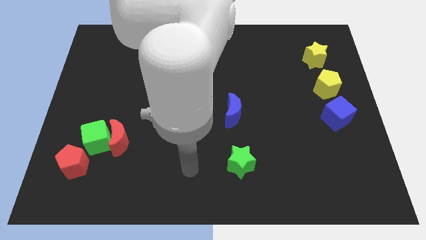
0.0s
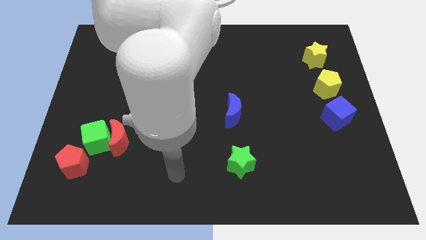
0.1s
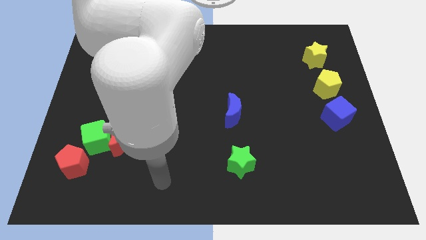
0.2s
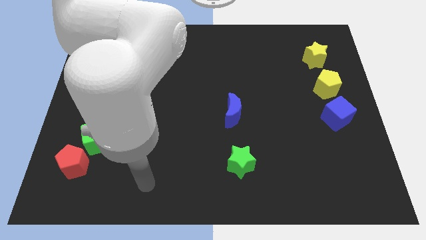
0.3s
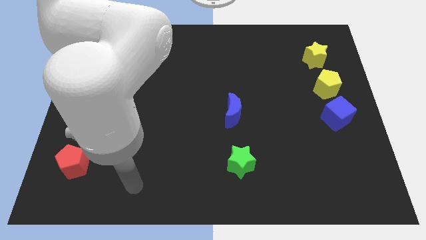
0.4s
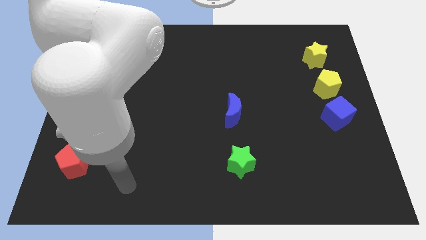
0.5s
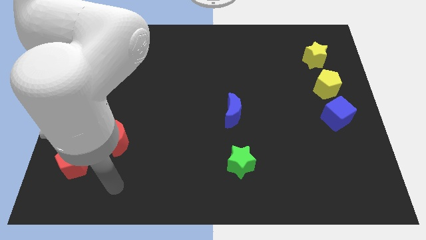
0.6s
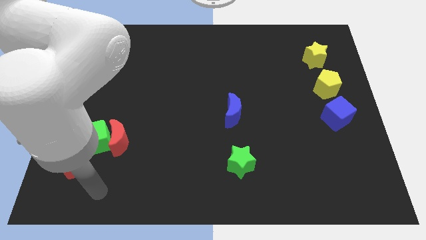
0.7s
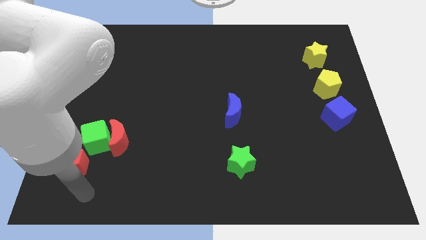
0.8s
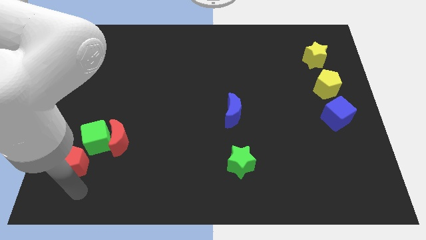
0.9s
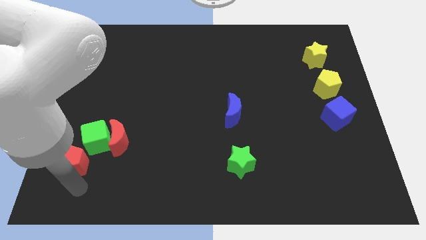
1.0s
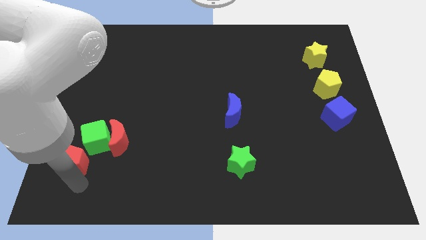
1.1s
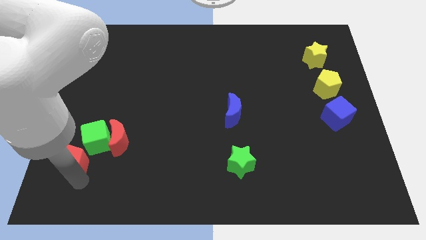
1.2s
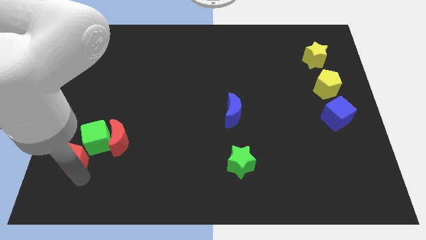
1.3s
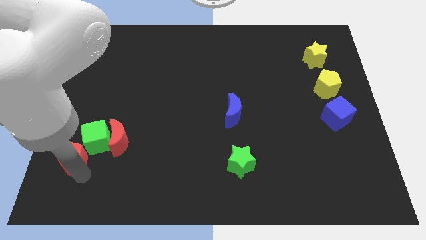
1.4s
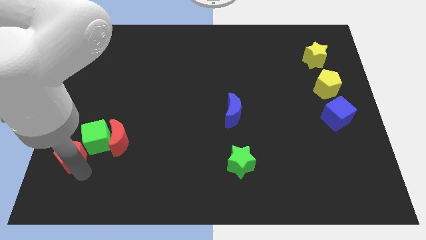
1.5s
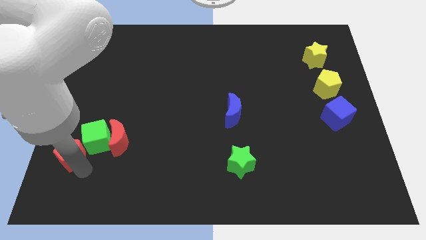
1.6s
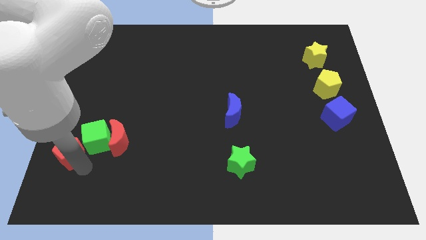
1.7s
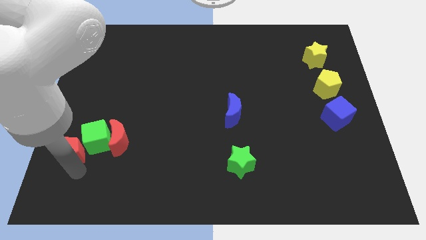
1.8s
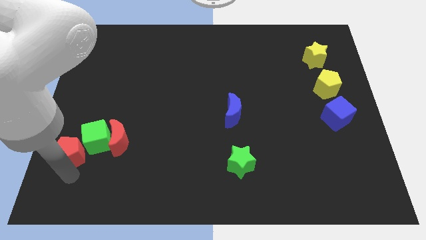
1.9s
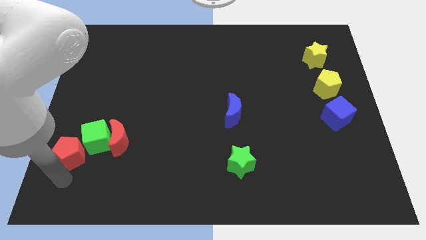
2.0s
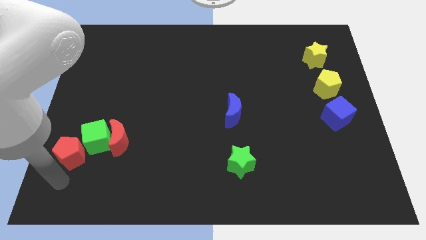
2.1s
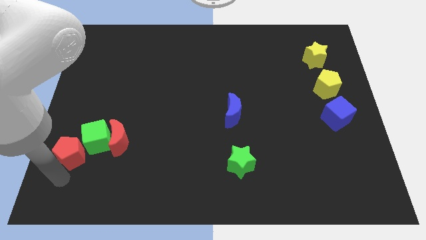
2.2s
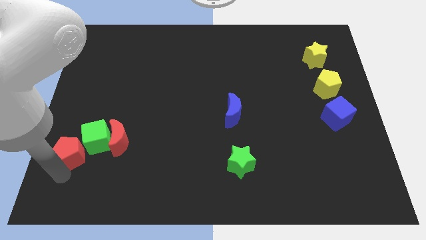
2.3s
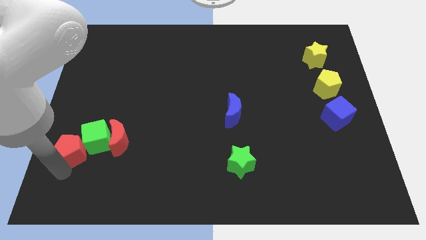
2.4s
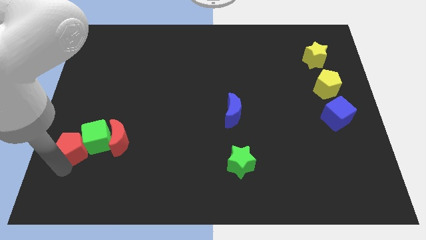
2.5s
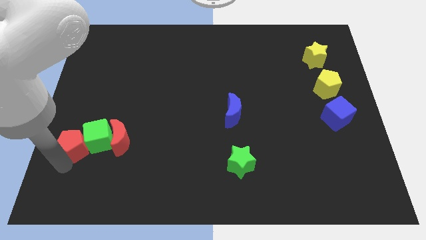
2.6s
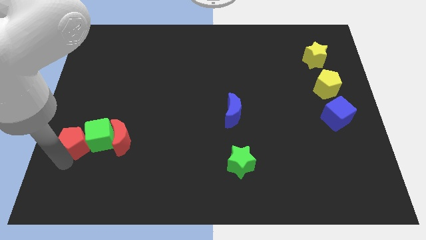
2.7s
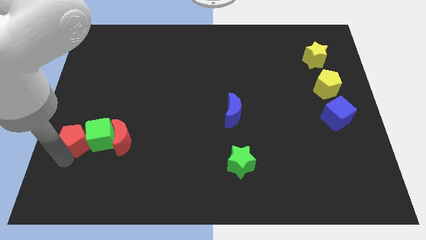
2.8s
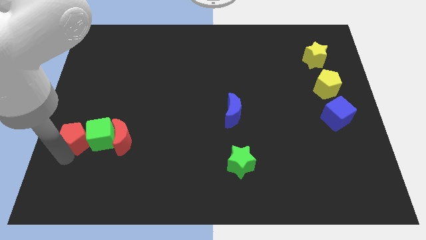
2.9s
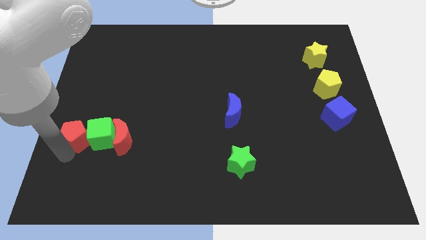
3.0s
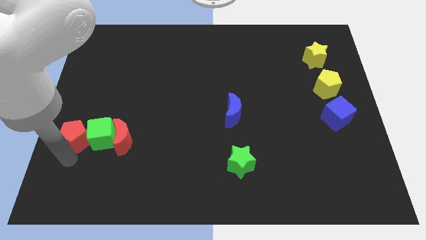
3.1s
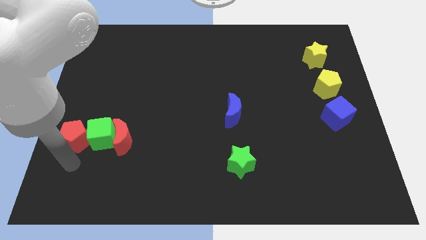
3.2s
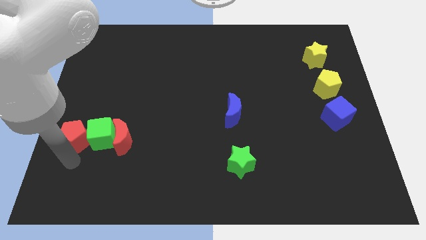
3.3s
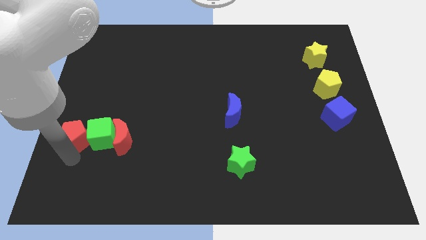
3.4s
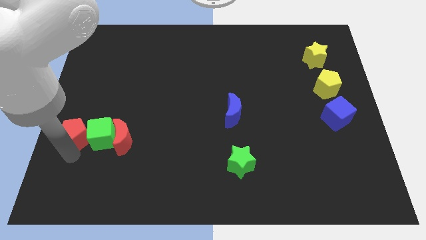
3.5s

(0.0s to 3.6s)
slightly slide the red pentagon upwards

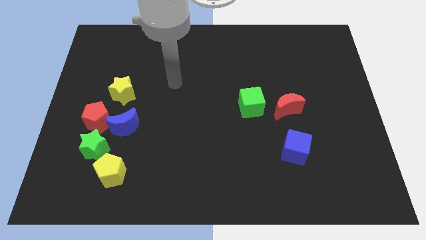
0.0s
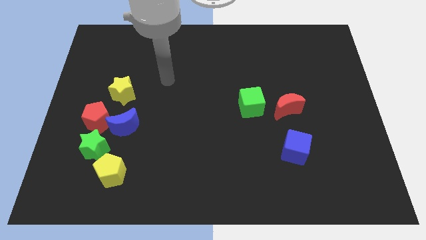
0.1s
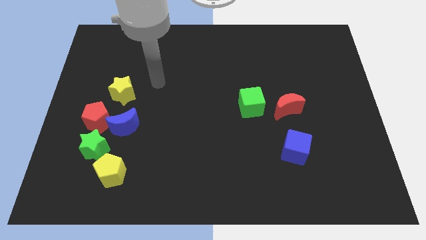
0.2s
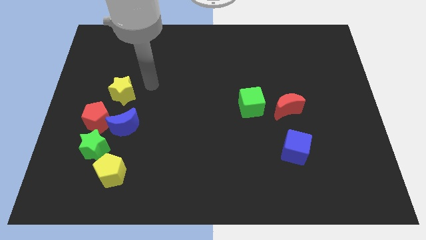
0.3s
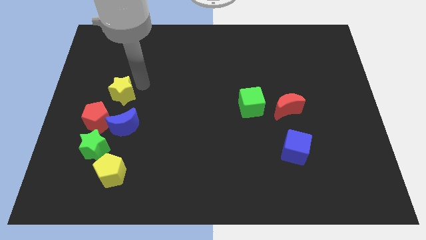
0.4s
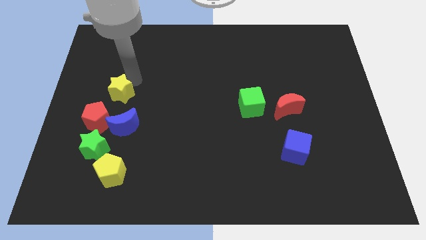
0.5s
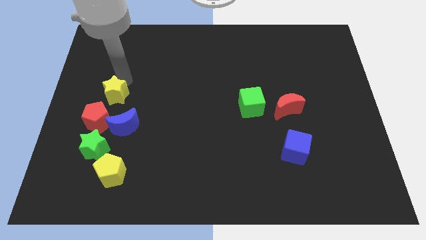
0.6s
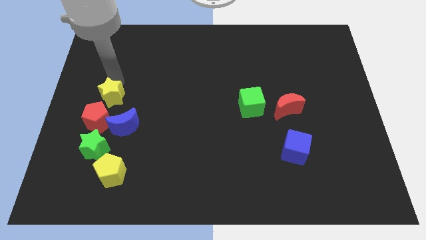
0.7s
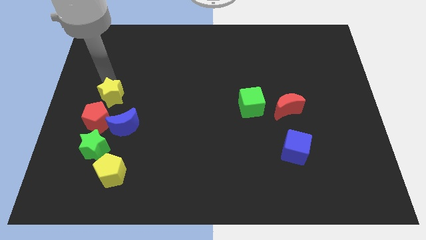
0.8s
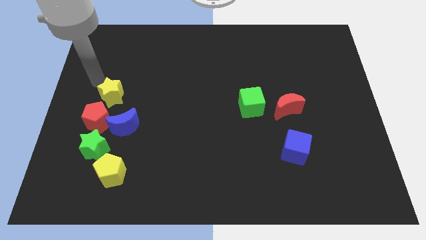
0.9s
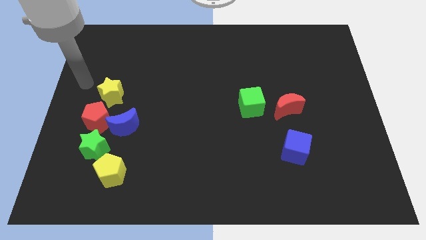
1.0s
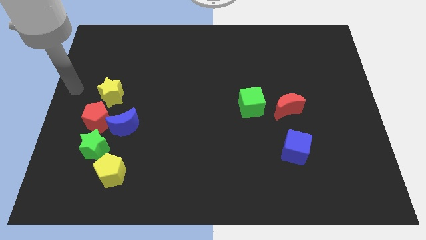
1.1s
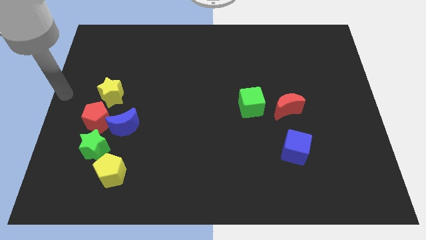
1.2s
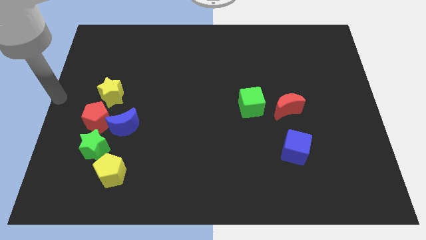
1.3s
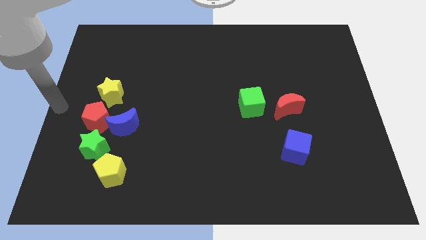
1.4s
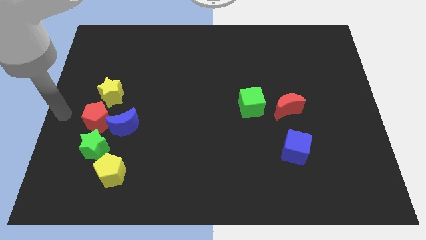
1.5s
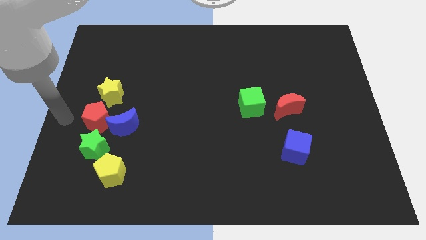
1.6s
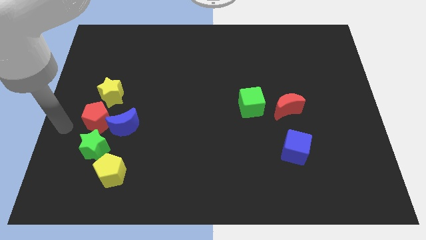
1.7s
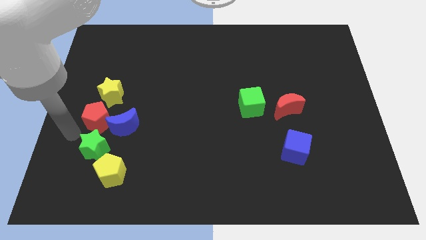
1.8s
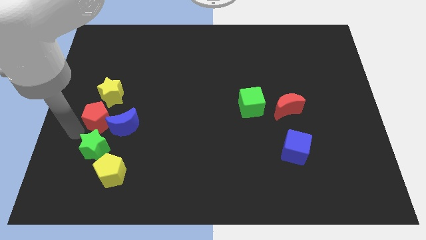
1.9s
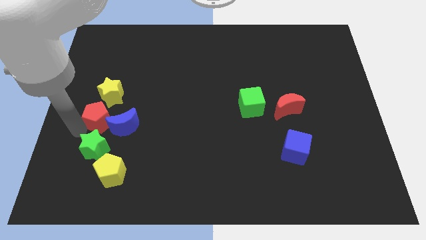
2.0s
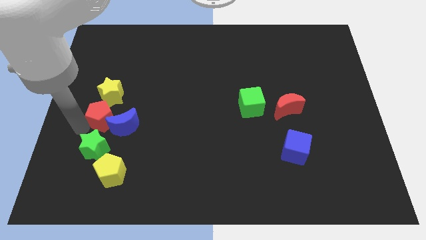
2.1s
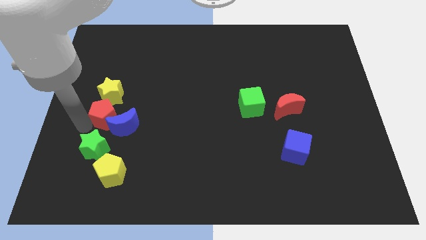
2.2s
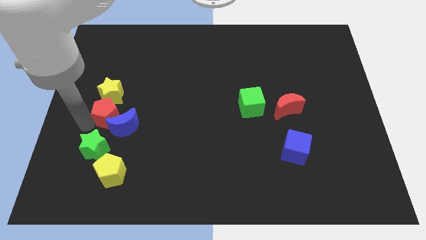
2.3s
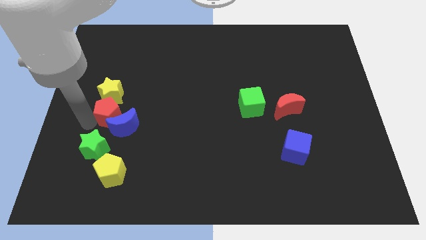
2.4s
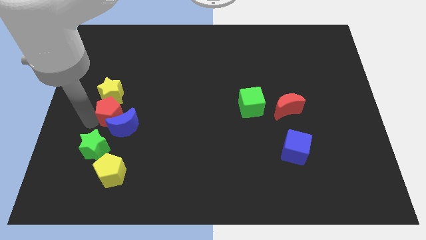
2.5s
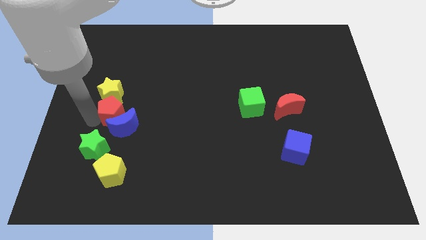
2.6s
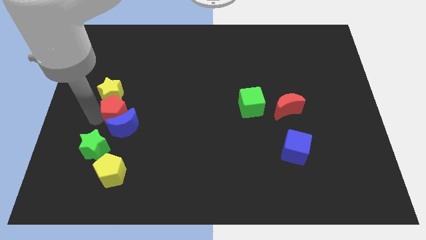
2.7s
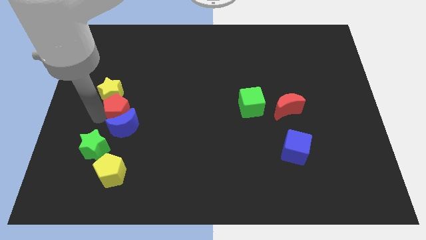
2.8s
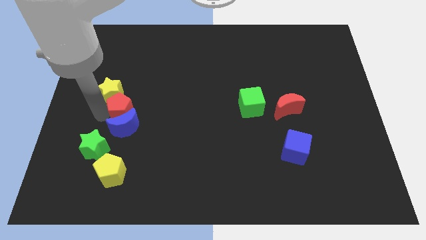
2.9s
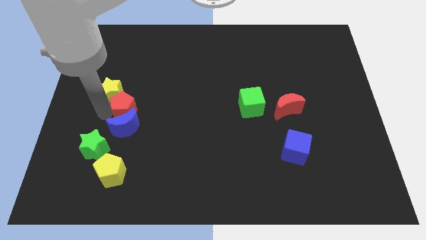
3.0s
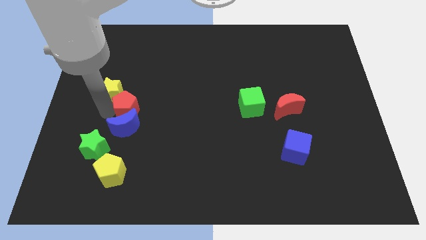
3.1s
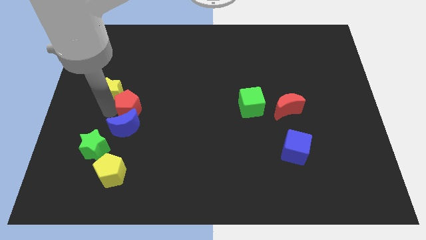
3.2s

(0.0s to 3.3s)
slightly slide the red pentagon up and then right

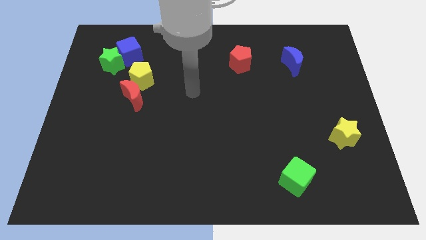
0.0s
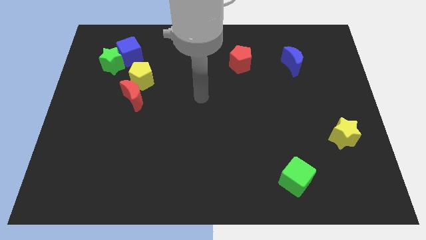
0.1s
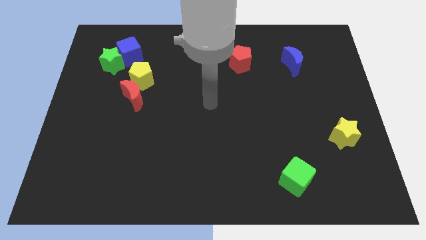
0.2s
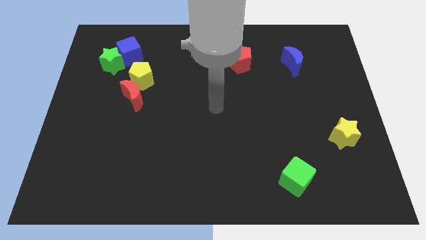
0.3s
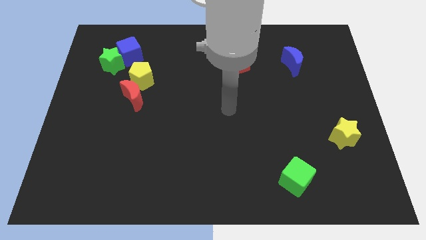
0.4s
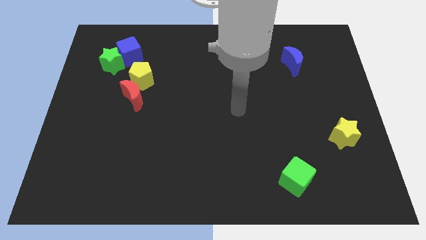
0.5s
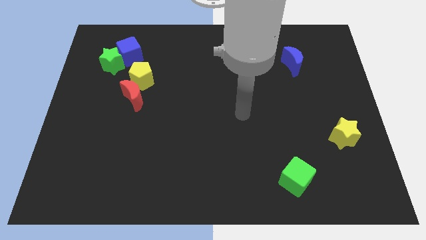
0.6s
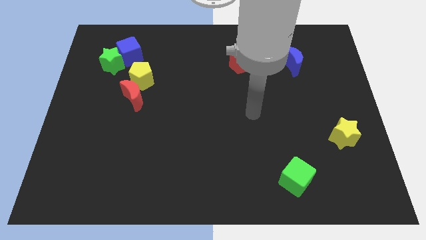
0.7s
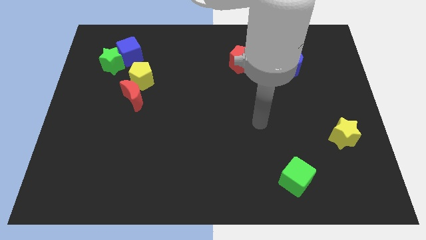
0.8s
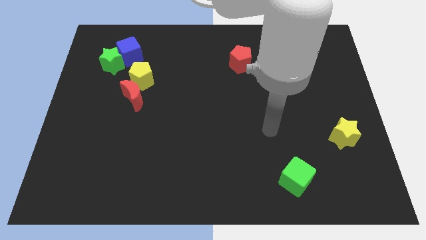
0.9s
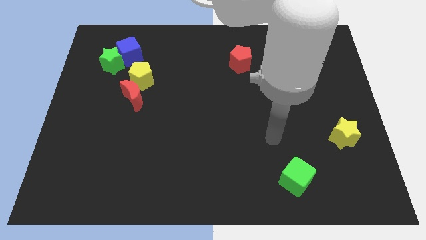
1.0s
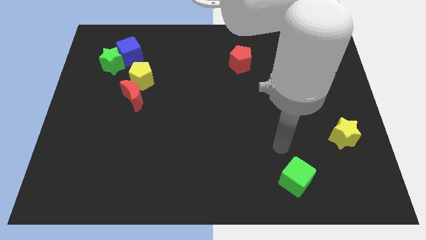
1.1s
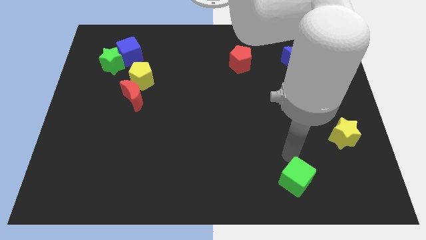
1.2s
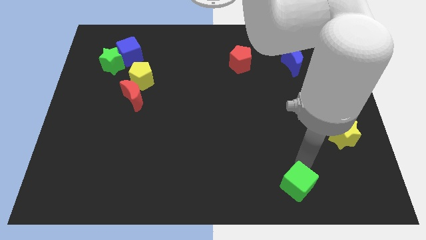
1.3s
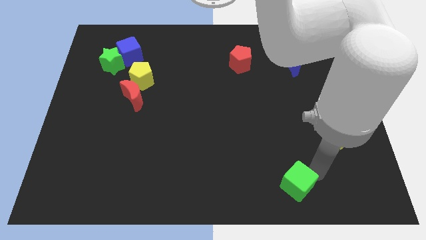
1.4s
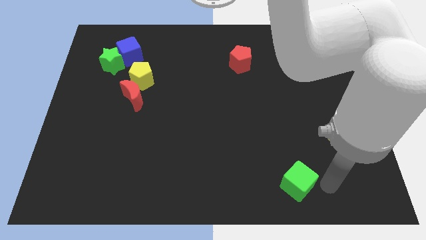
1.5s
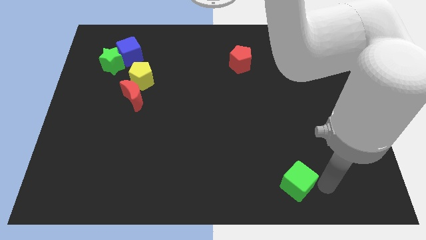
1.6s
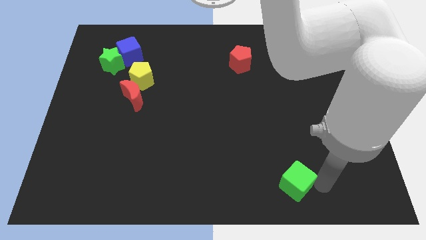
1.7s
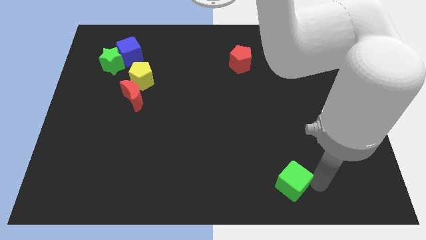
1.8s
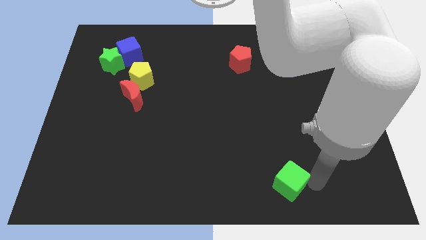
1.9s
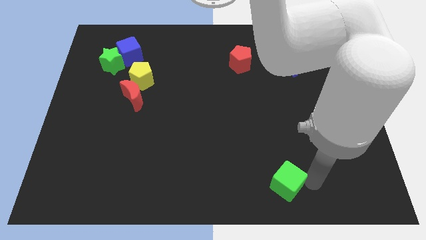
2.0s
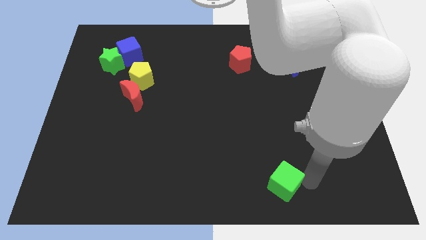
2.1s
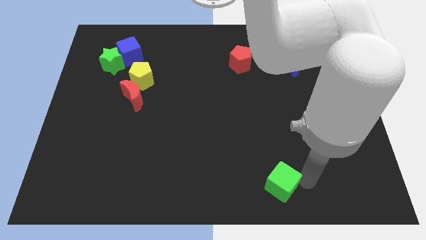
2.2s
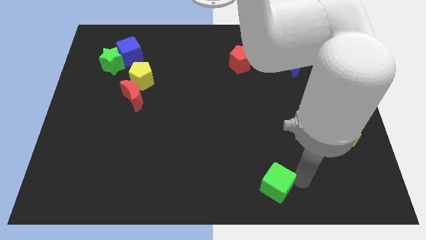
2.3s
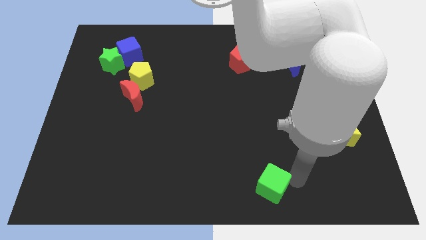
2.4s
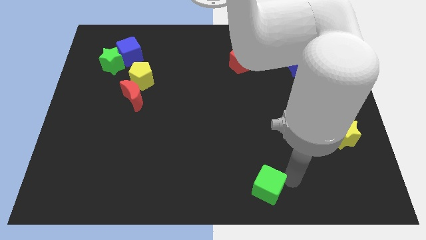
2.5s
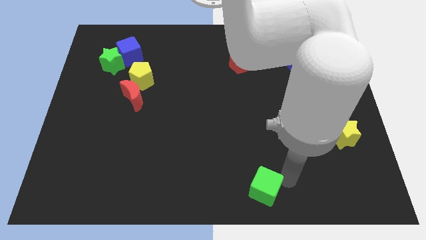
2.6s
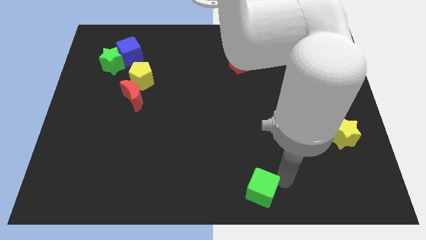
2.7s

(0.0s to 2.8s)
slightly move the green cube left
